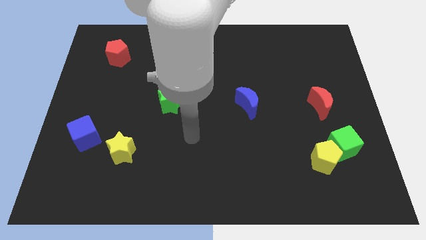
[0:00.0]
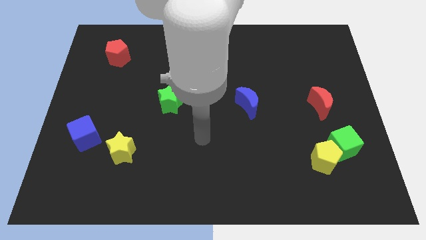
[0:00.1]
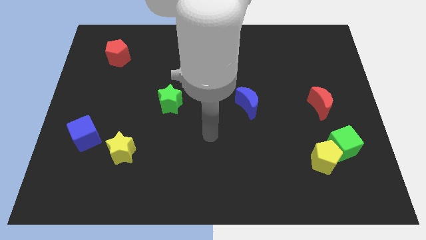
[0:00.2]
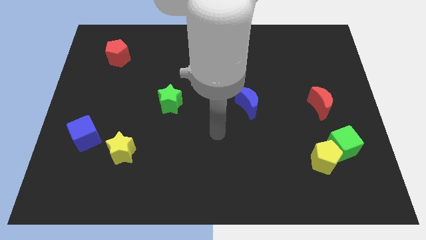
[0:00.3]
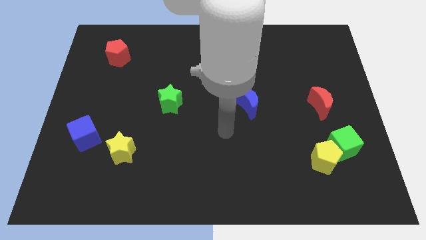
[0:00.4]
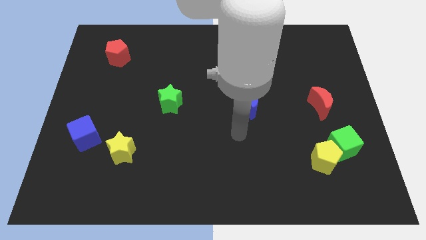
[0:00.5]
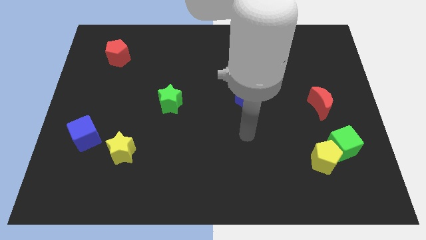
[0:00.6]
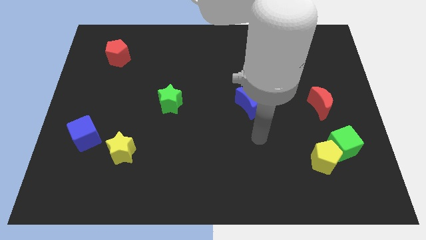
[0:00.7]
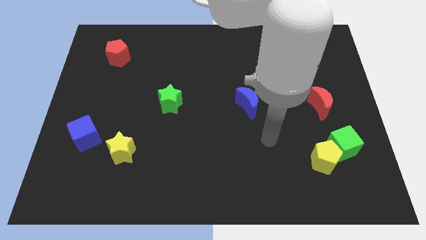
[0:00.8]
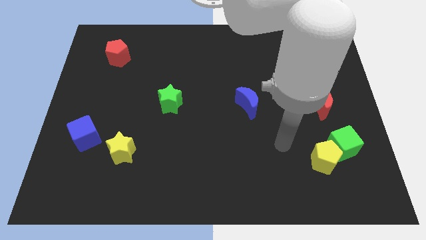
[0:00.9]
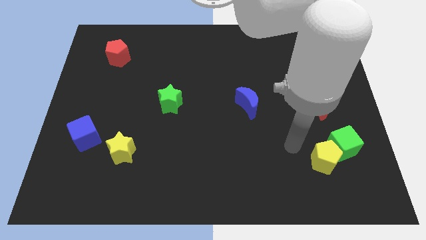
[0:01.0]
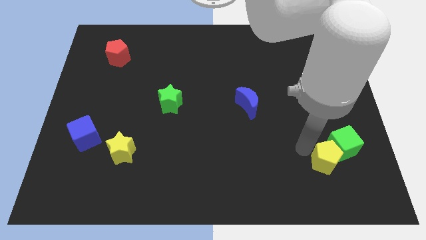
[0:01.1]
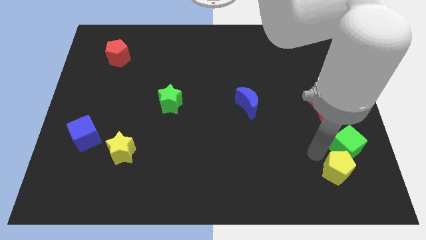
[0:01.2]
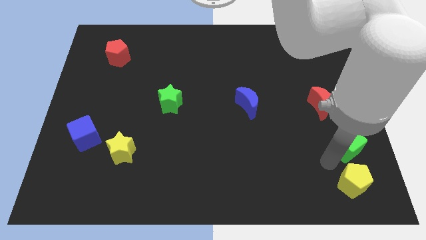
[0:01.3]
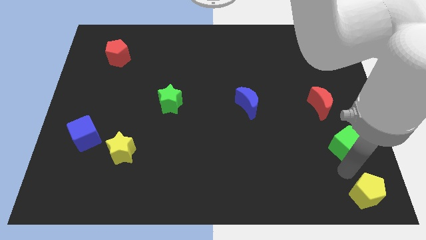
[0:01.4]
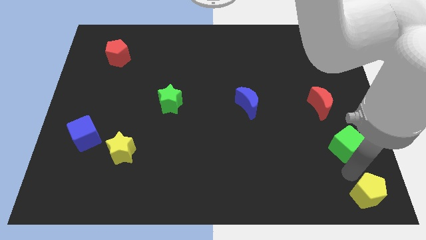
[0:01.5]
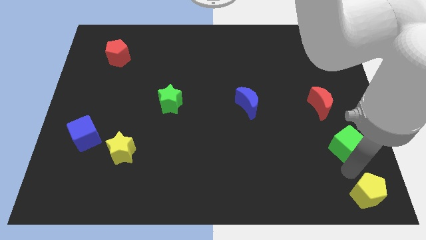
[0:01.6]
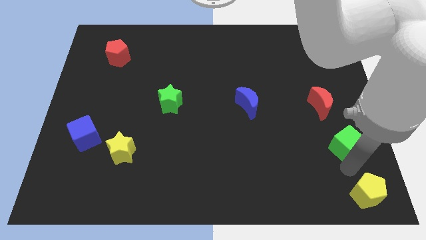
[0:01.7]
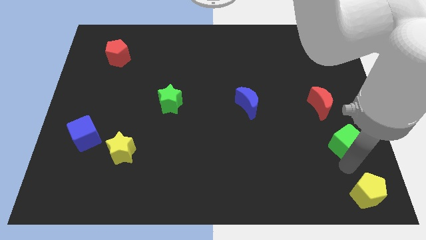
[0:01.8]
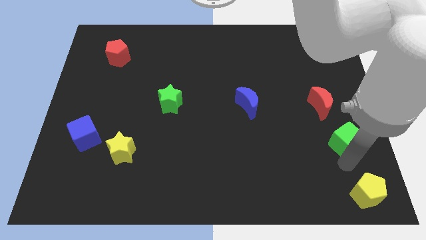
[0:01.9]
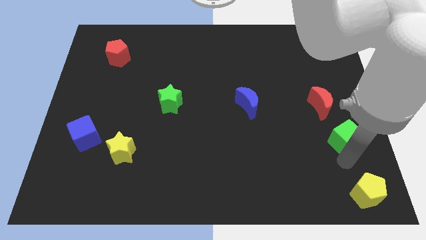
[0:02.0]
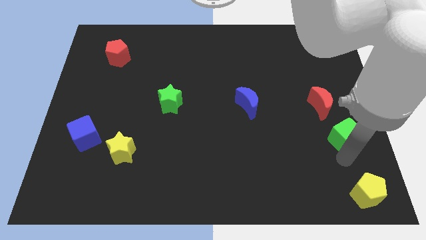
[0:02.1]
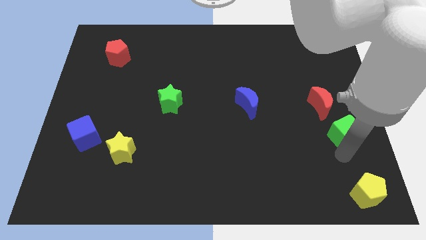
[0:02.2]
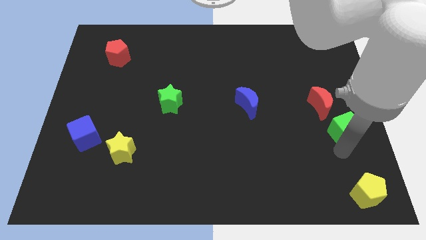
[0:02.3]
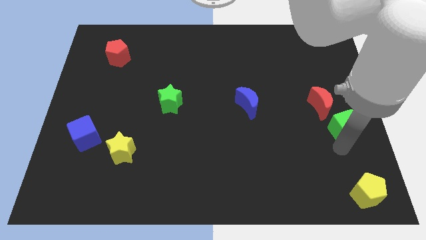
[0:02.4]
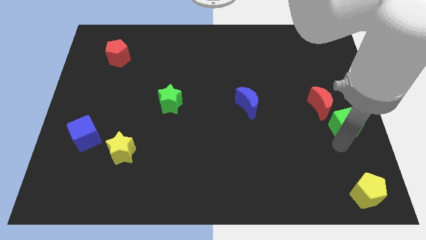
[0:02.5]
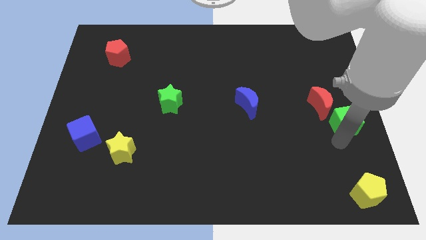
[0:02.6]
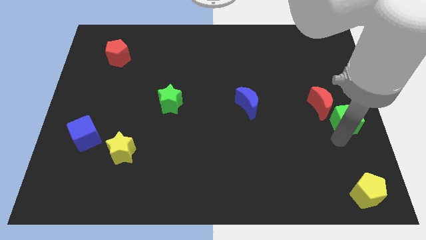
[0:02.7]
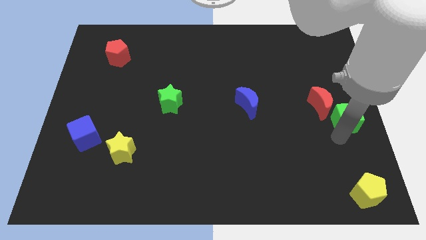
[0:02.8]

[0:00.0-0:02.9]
slightly slide the green cube up

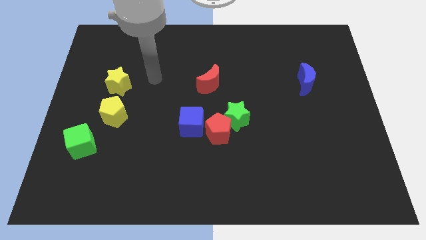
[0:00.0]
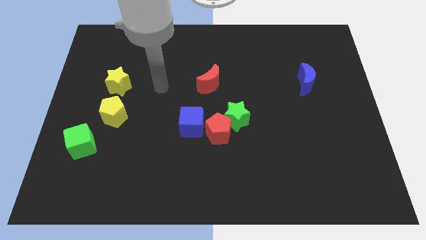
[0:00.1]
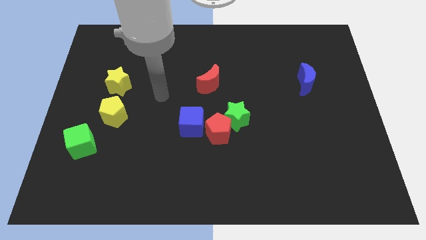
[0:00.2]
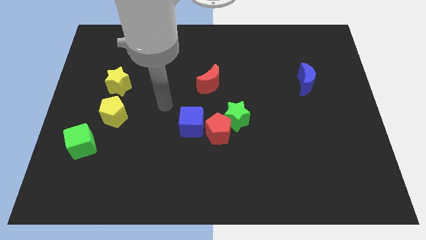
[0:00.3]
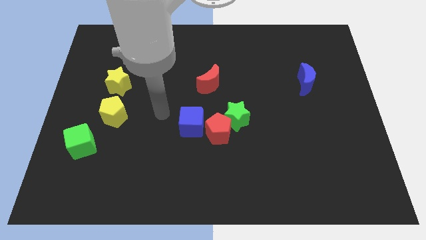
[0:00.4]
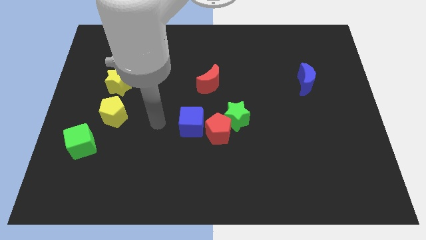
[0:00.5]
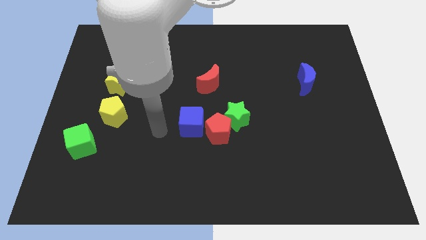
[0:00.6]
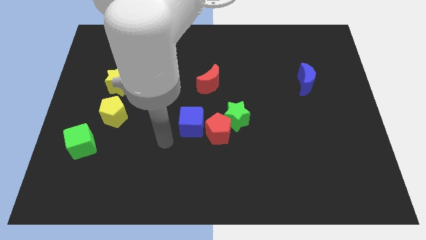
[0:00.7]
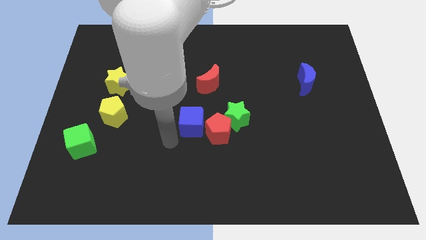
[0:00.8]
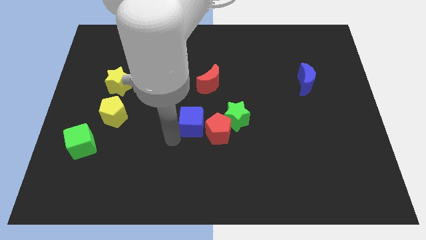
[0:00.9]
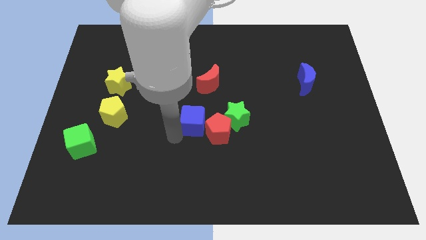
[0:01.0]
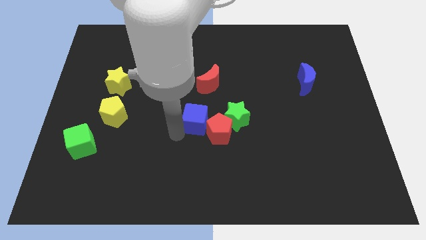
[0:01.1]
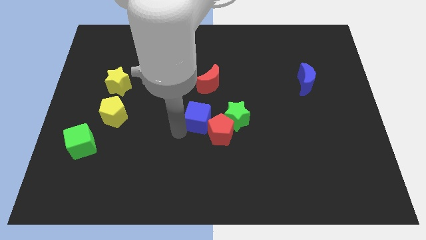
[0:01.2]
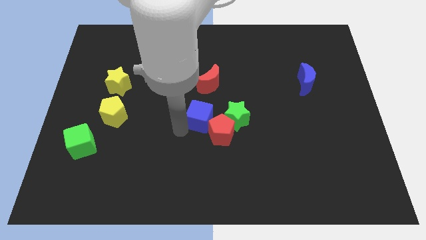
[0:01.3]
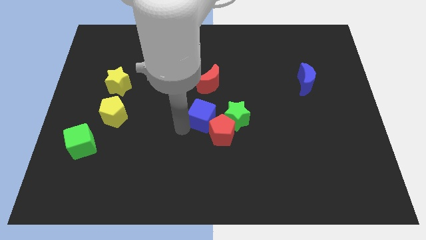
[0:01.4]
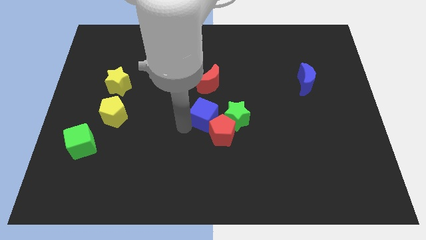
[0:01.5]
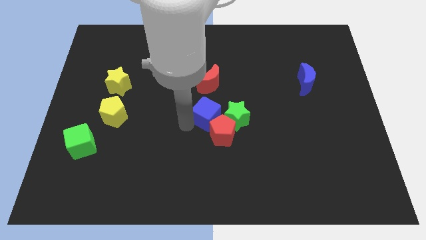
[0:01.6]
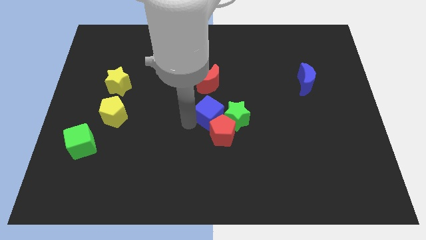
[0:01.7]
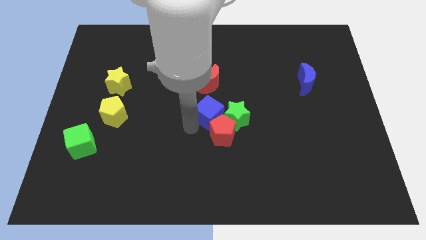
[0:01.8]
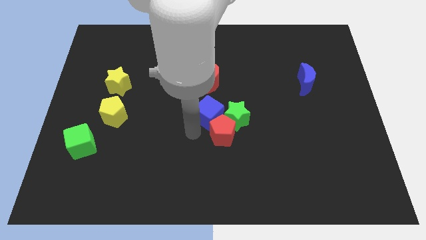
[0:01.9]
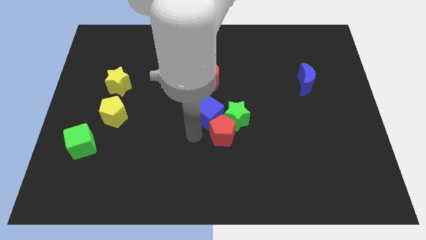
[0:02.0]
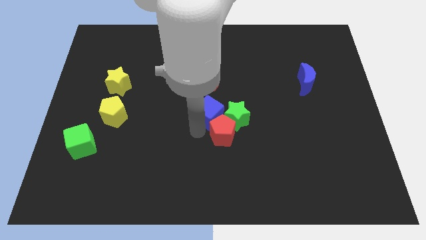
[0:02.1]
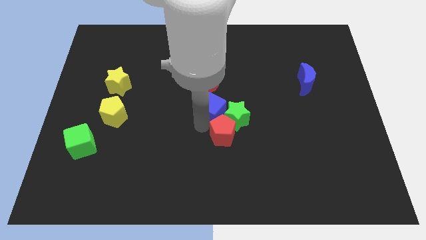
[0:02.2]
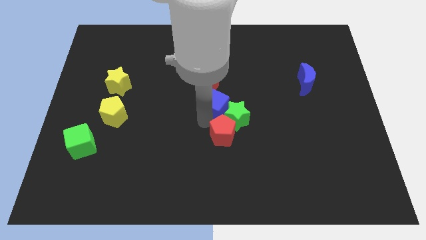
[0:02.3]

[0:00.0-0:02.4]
push the blue cube a little bit diagonally upwards and right

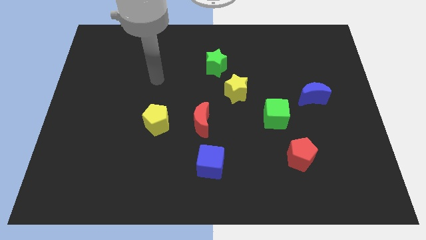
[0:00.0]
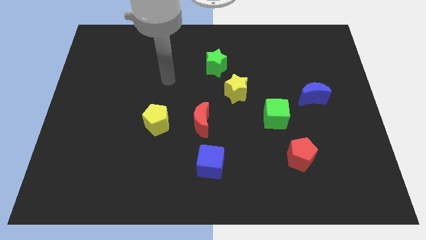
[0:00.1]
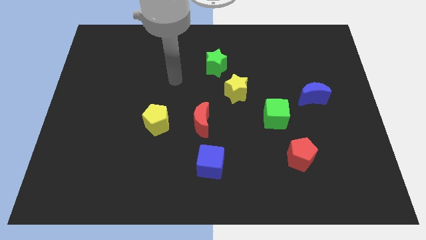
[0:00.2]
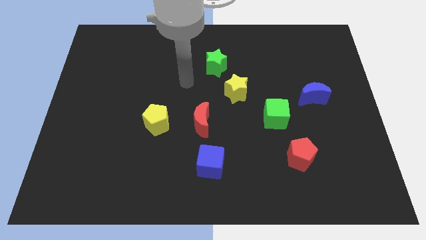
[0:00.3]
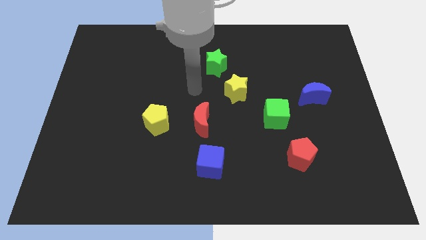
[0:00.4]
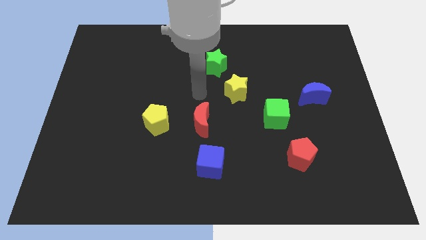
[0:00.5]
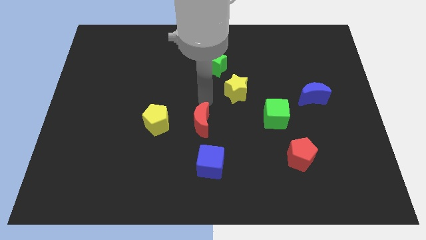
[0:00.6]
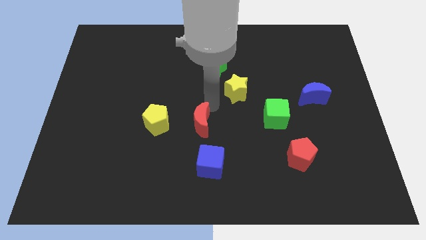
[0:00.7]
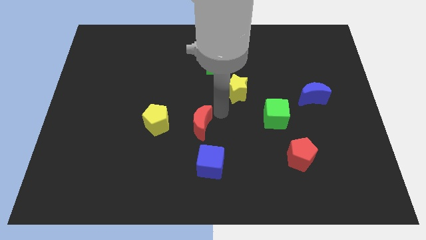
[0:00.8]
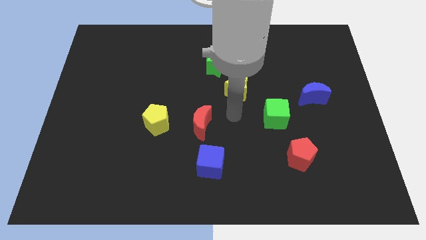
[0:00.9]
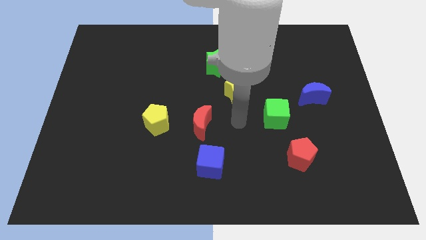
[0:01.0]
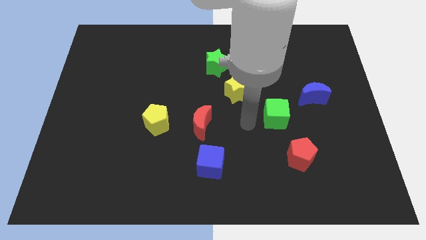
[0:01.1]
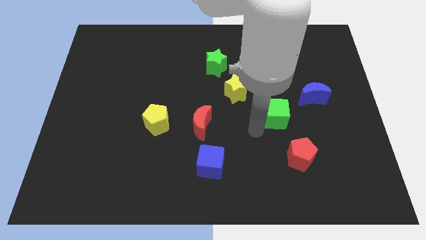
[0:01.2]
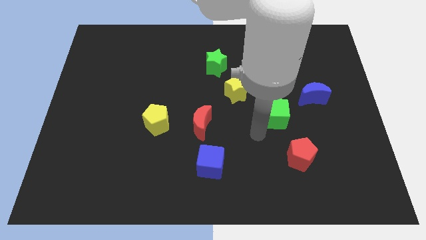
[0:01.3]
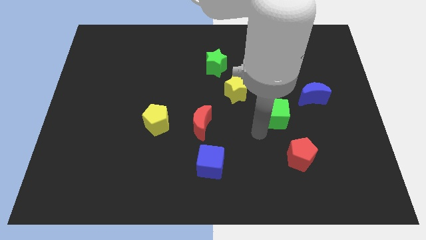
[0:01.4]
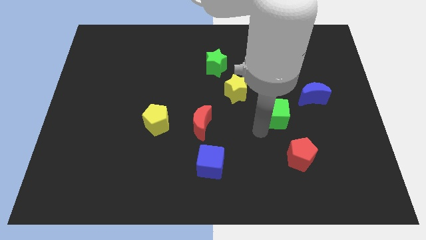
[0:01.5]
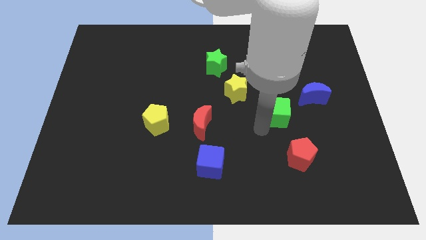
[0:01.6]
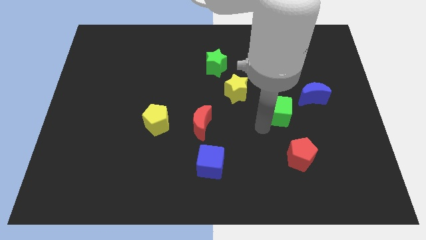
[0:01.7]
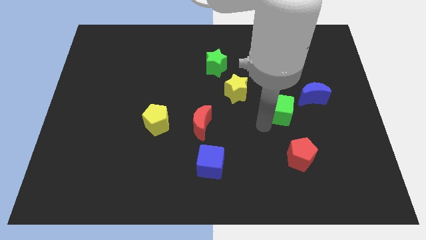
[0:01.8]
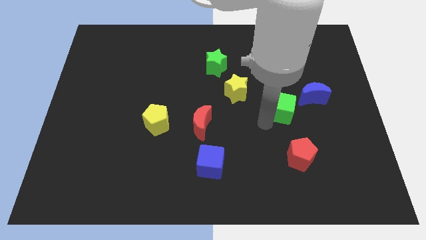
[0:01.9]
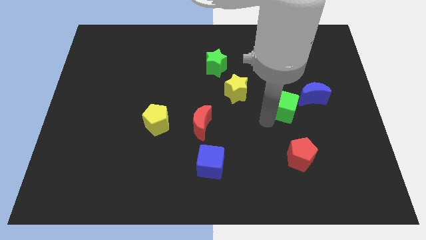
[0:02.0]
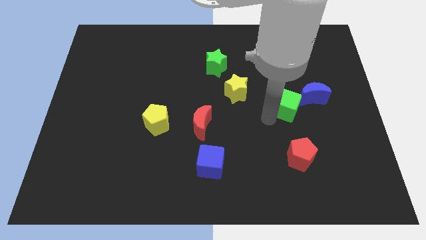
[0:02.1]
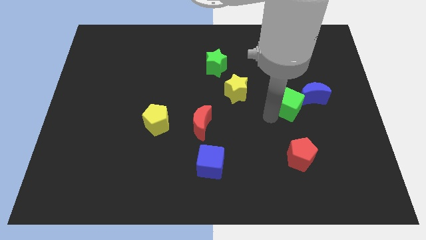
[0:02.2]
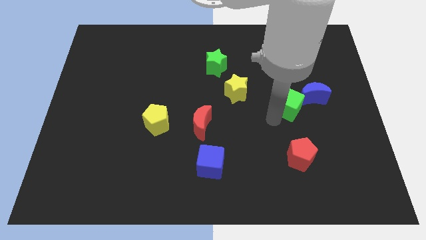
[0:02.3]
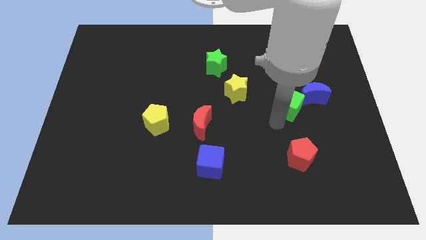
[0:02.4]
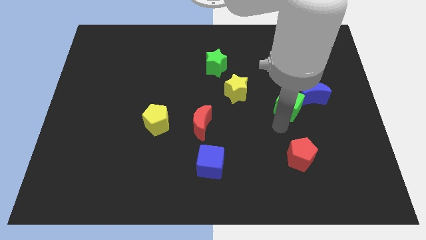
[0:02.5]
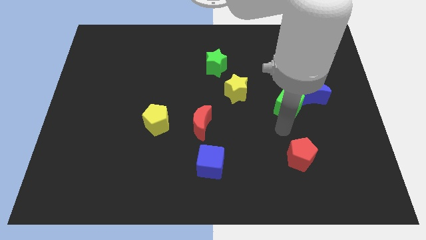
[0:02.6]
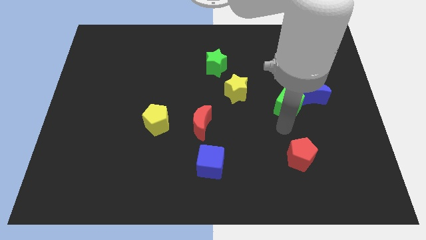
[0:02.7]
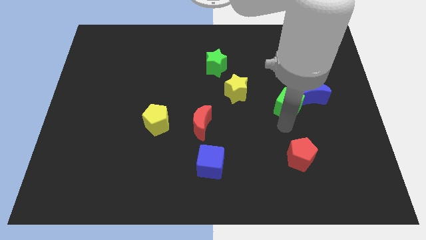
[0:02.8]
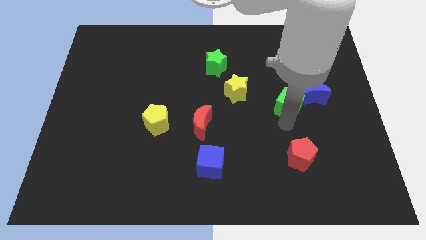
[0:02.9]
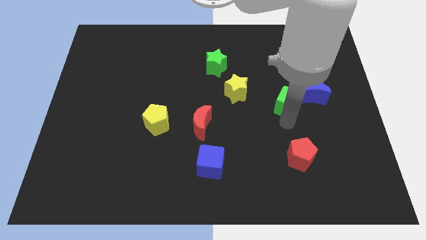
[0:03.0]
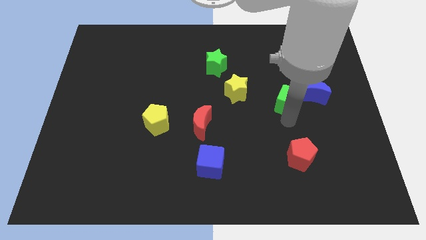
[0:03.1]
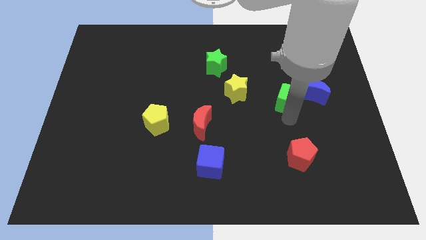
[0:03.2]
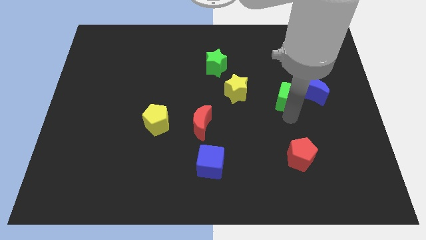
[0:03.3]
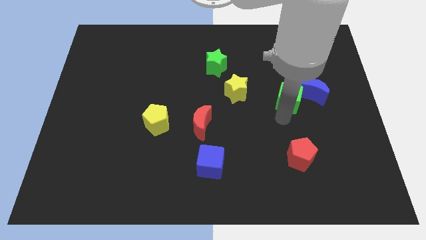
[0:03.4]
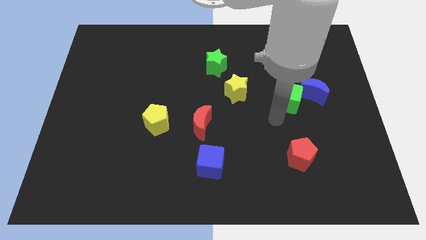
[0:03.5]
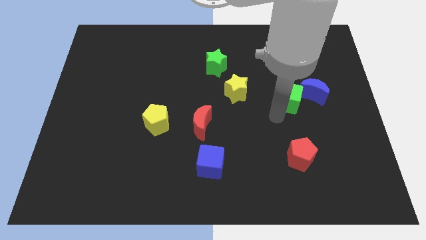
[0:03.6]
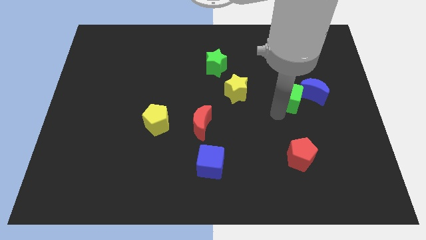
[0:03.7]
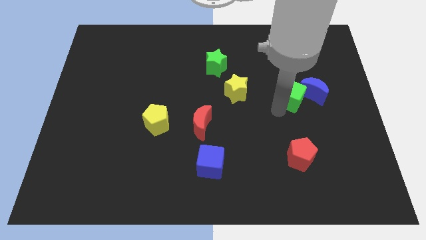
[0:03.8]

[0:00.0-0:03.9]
slightly slide the green cube up and right diagonally
